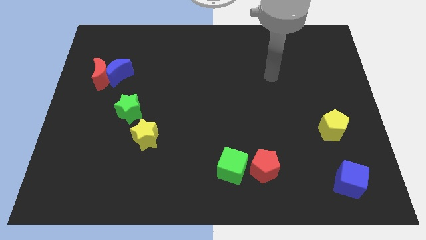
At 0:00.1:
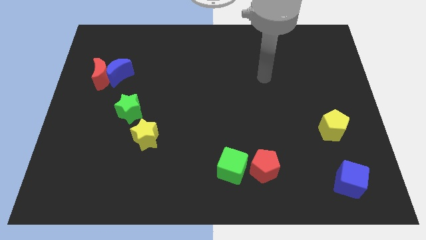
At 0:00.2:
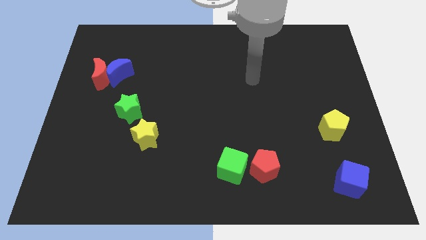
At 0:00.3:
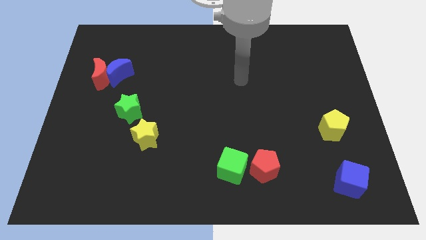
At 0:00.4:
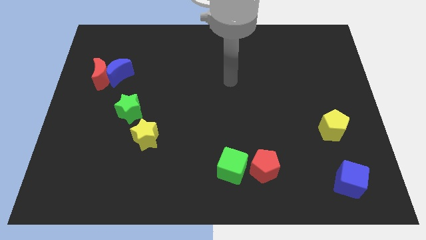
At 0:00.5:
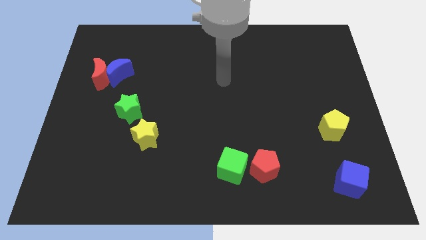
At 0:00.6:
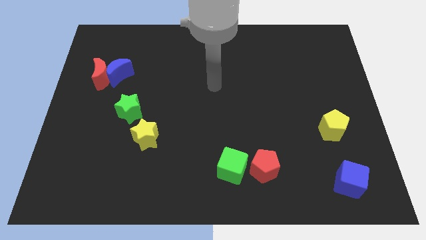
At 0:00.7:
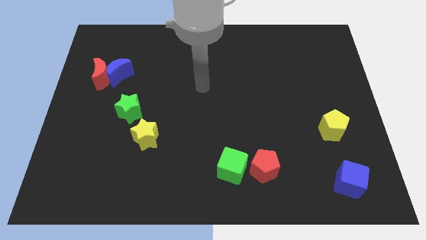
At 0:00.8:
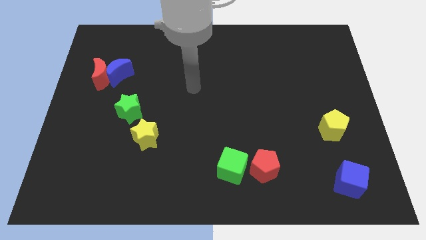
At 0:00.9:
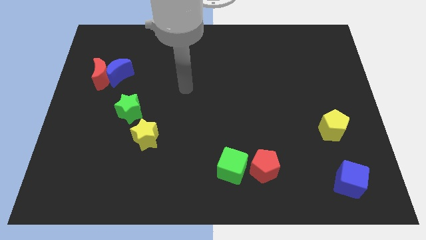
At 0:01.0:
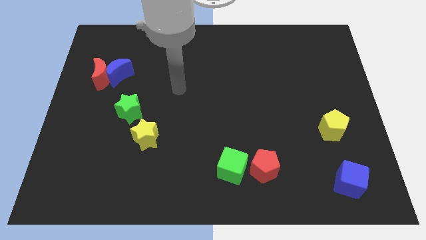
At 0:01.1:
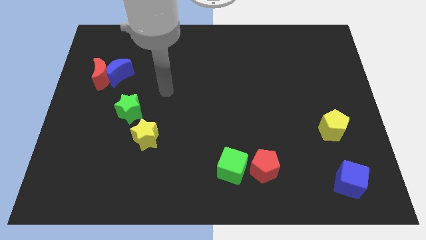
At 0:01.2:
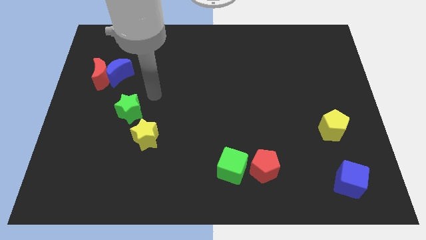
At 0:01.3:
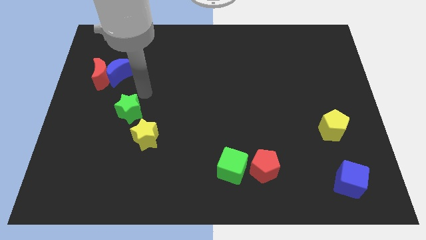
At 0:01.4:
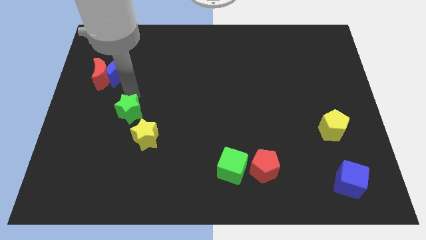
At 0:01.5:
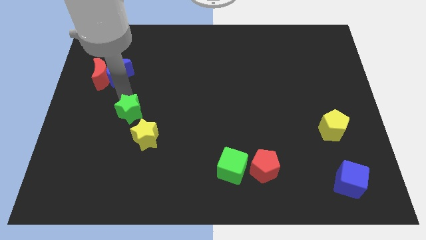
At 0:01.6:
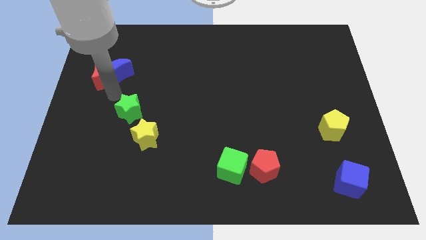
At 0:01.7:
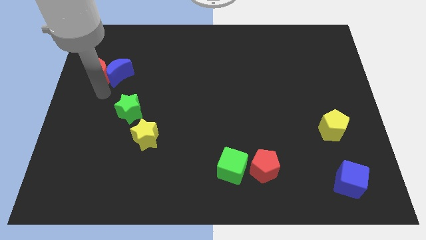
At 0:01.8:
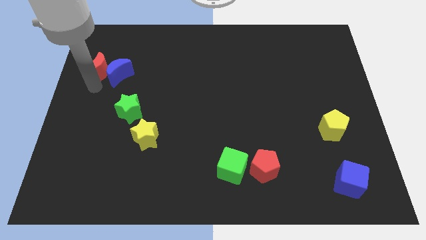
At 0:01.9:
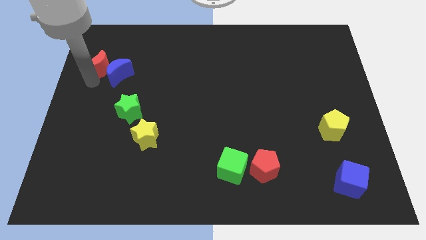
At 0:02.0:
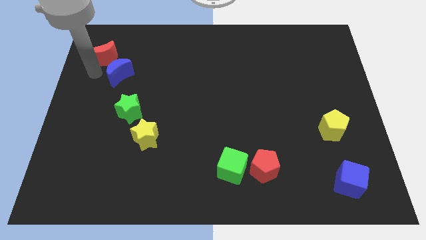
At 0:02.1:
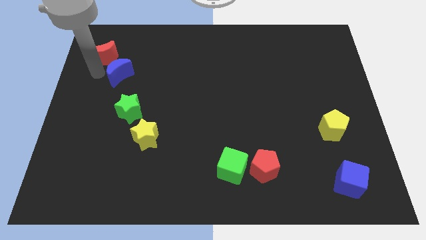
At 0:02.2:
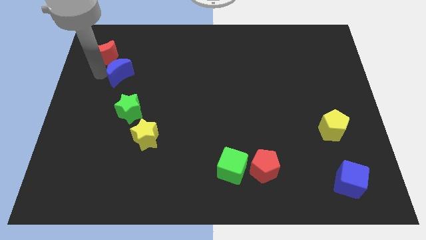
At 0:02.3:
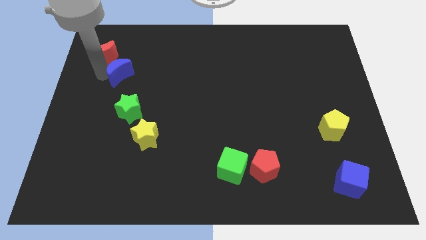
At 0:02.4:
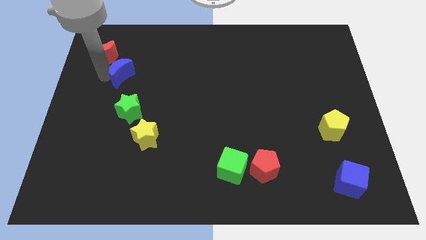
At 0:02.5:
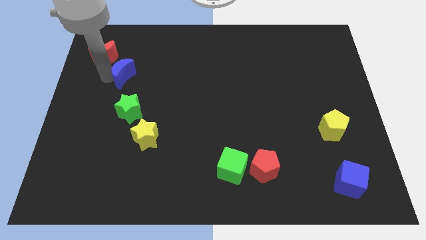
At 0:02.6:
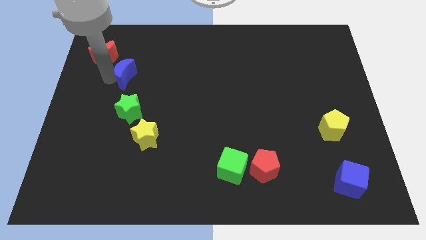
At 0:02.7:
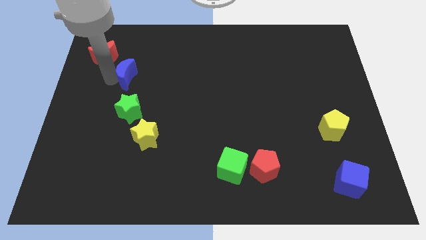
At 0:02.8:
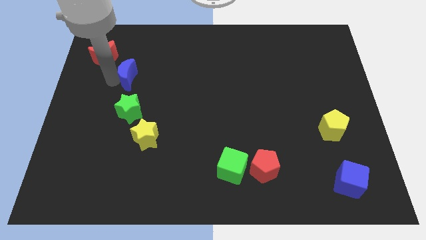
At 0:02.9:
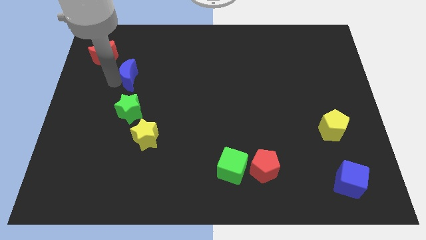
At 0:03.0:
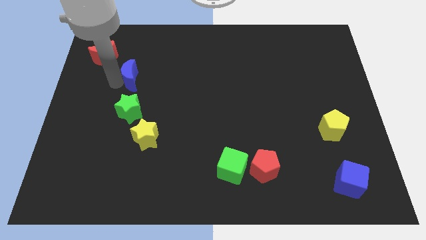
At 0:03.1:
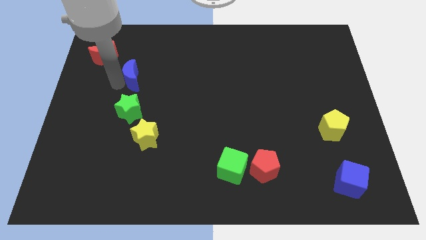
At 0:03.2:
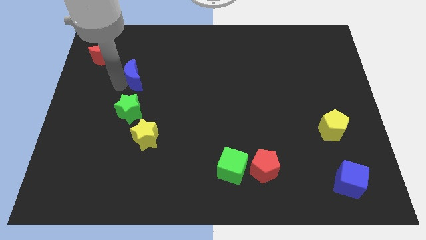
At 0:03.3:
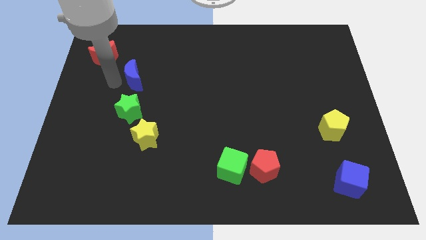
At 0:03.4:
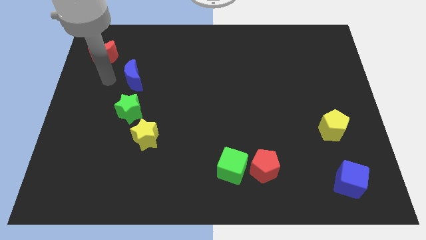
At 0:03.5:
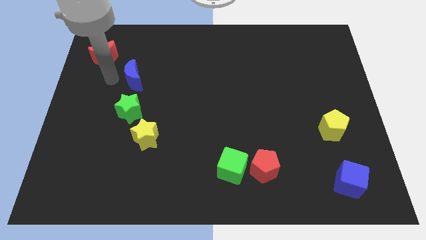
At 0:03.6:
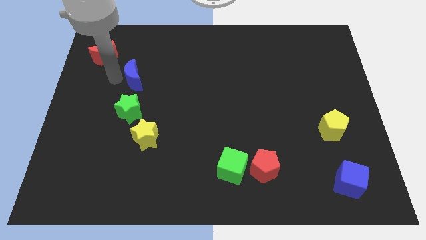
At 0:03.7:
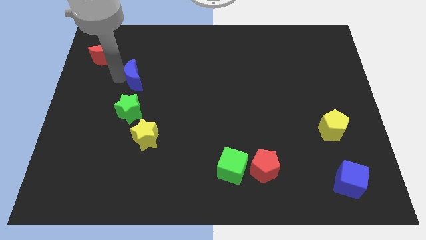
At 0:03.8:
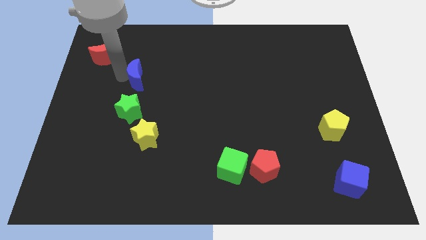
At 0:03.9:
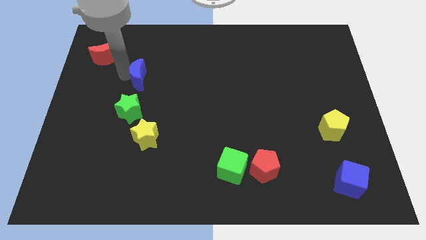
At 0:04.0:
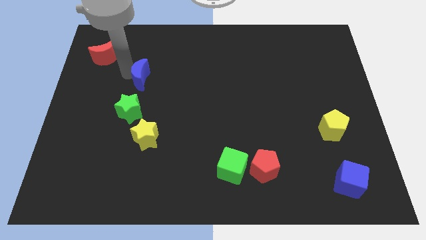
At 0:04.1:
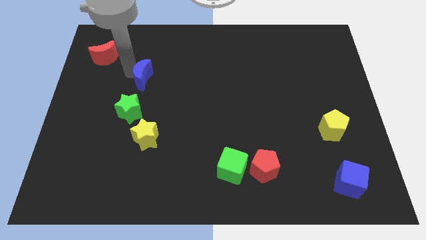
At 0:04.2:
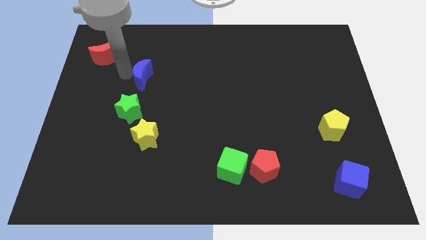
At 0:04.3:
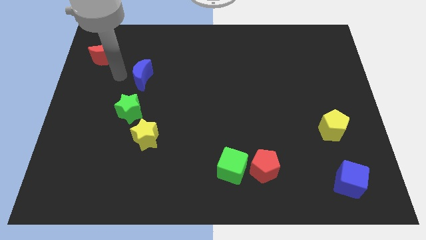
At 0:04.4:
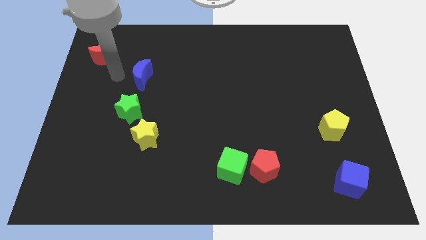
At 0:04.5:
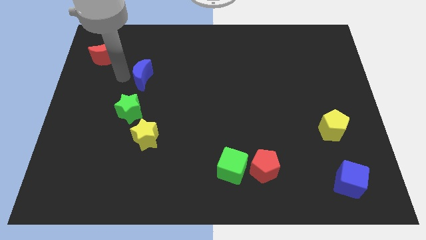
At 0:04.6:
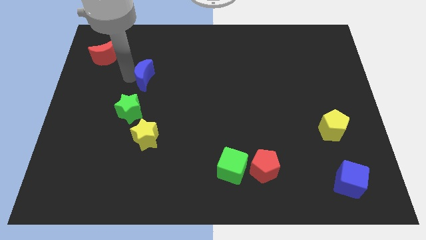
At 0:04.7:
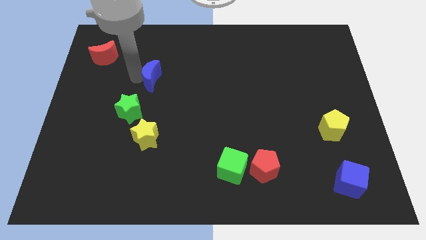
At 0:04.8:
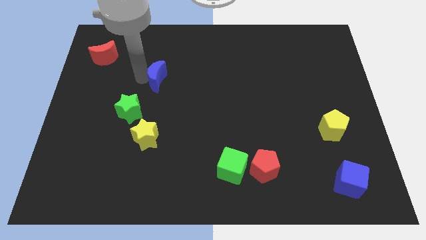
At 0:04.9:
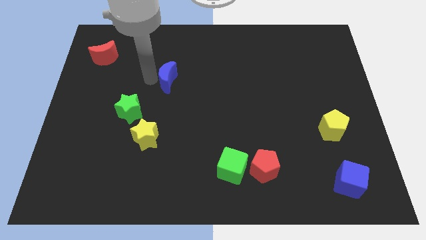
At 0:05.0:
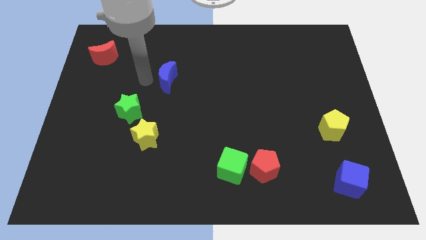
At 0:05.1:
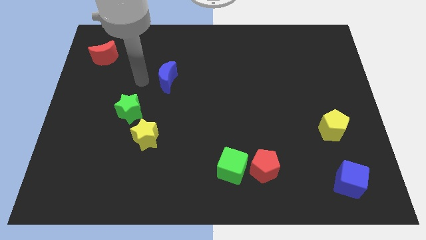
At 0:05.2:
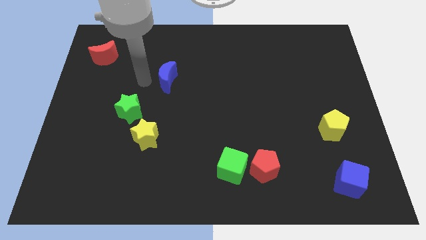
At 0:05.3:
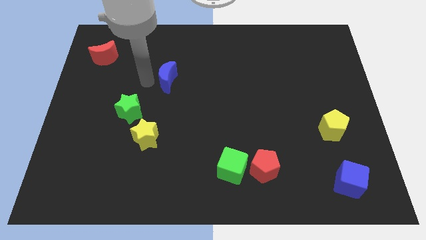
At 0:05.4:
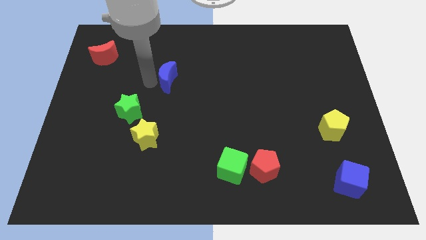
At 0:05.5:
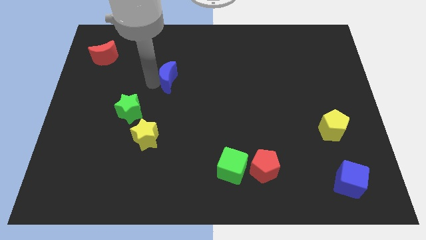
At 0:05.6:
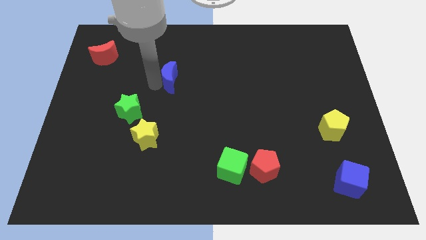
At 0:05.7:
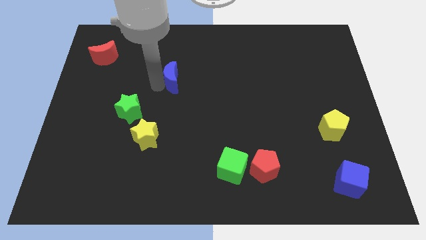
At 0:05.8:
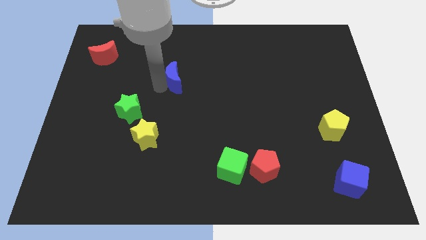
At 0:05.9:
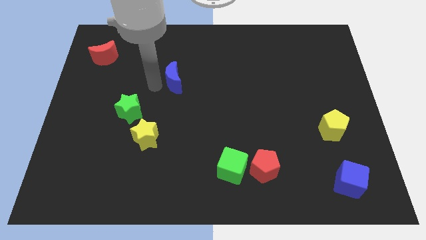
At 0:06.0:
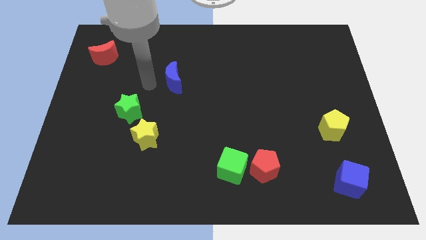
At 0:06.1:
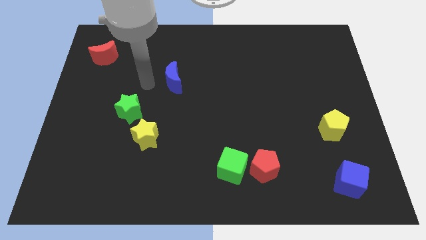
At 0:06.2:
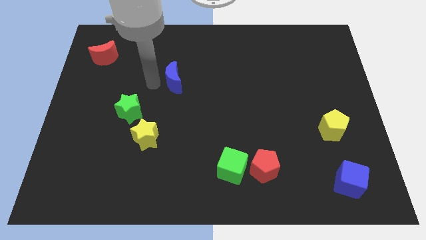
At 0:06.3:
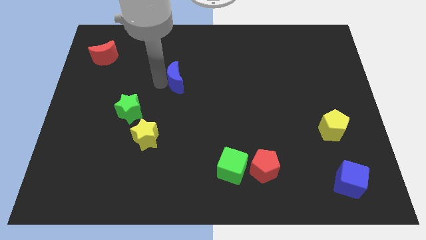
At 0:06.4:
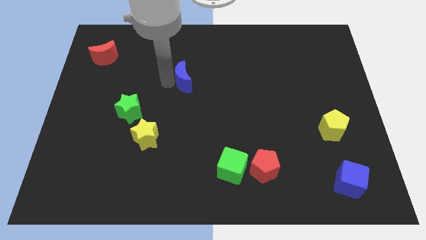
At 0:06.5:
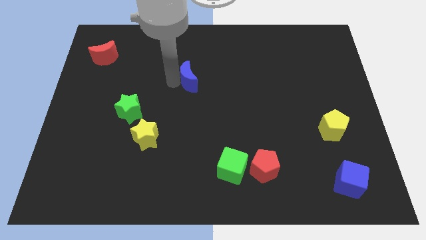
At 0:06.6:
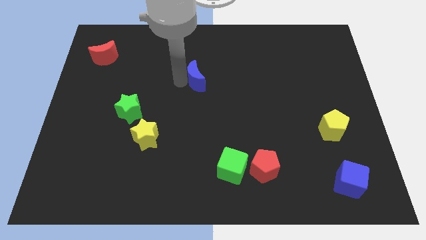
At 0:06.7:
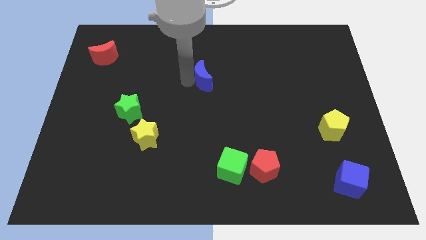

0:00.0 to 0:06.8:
move the blue moon to the right

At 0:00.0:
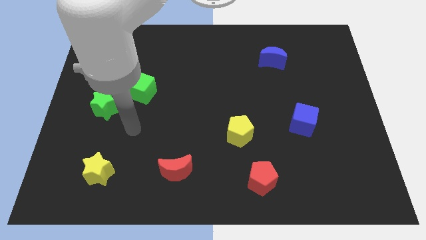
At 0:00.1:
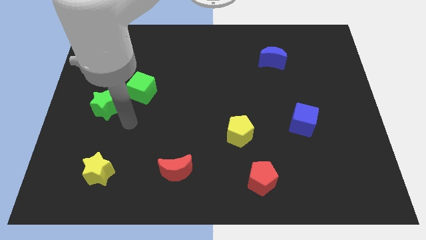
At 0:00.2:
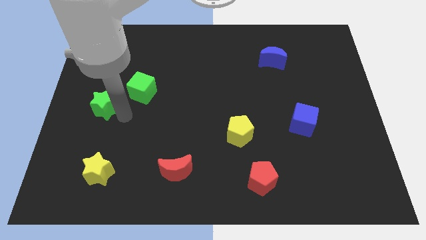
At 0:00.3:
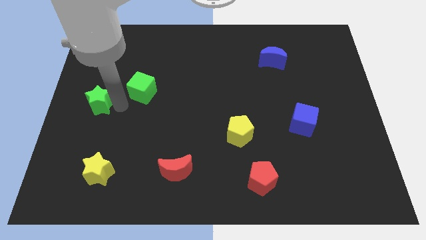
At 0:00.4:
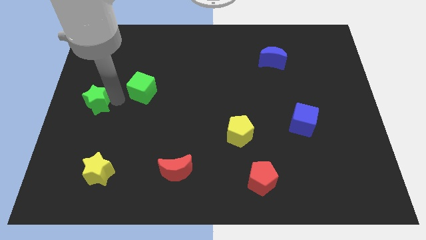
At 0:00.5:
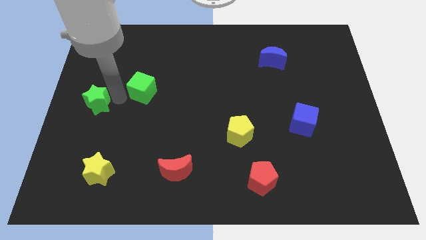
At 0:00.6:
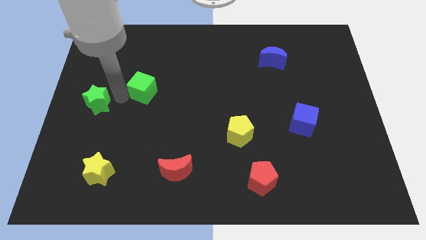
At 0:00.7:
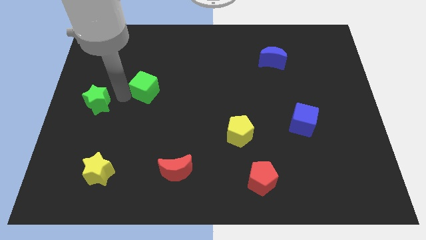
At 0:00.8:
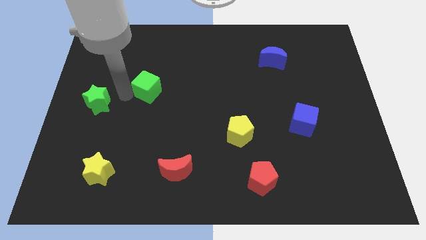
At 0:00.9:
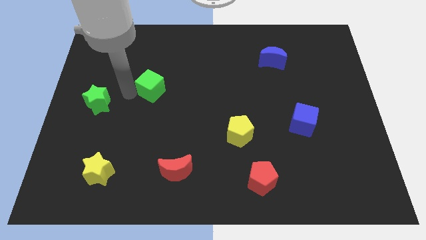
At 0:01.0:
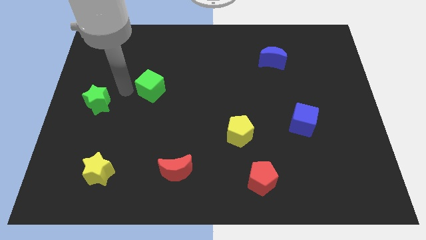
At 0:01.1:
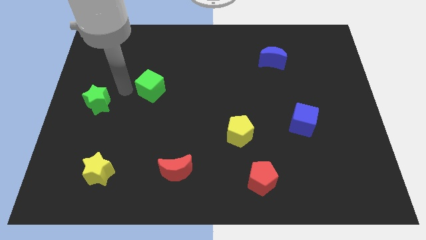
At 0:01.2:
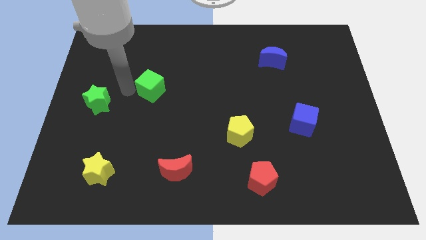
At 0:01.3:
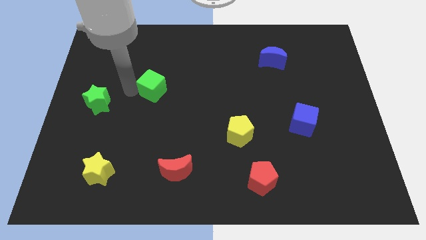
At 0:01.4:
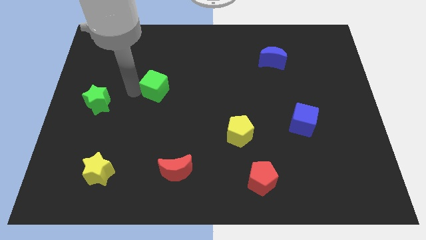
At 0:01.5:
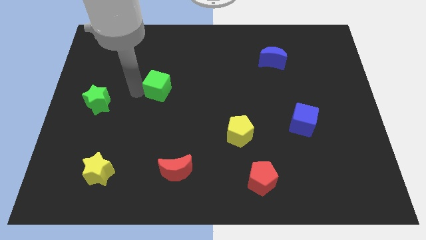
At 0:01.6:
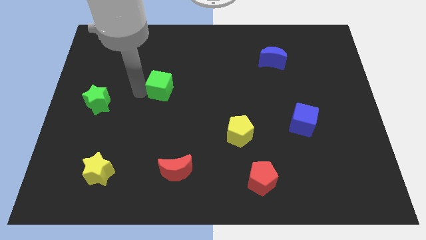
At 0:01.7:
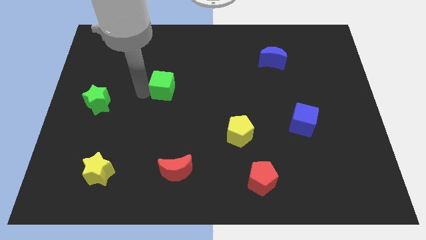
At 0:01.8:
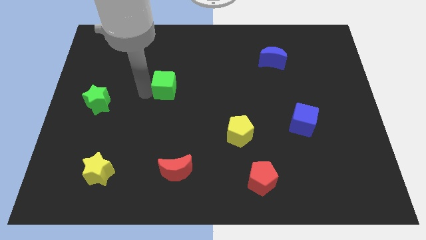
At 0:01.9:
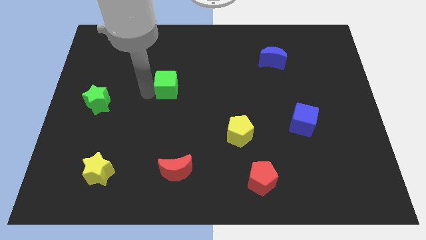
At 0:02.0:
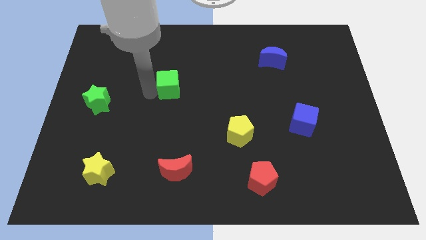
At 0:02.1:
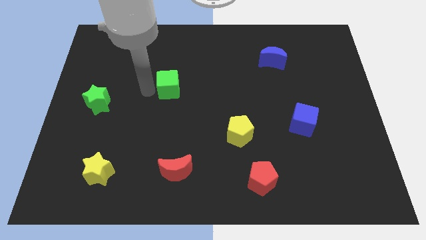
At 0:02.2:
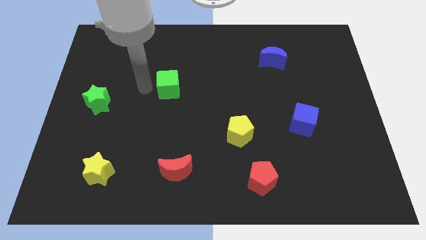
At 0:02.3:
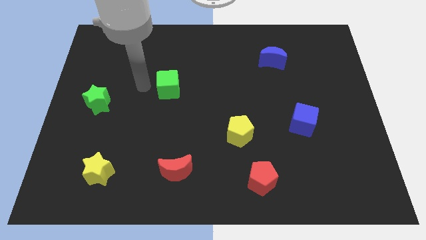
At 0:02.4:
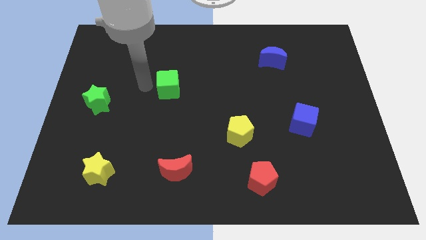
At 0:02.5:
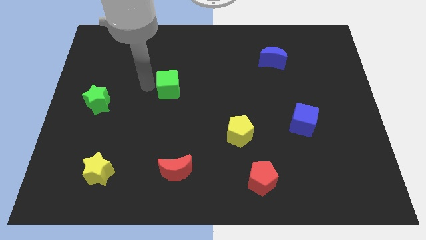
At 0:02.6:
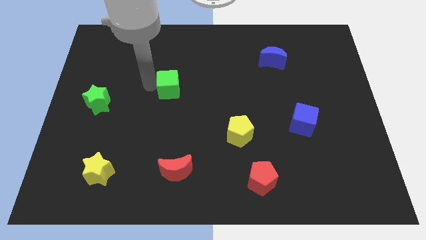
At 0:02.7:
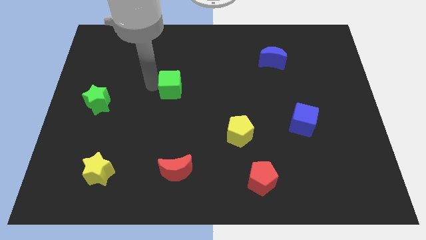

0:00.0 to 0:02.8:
move the green cube a bit to the right
